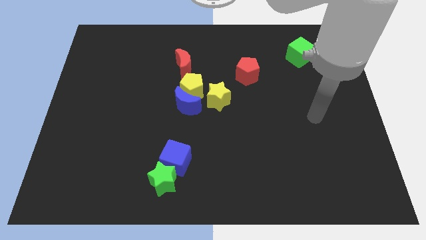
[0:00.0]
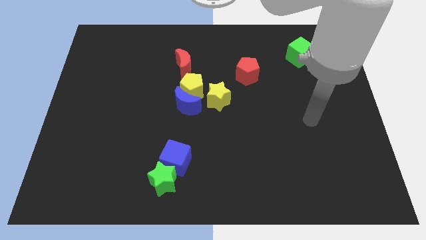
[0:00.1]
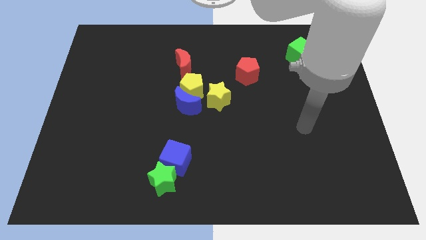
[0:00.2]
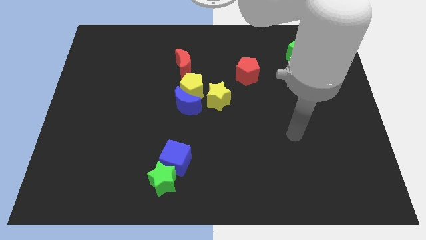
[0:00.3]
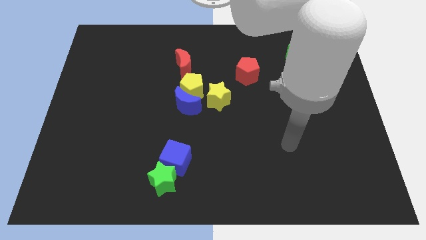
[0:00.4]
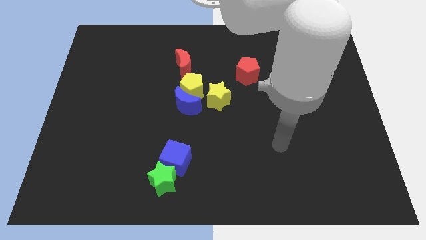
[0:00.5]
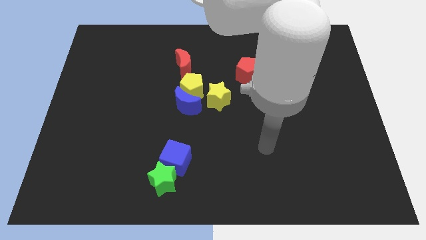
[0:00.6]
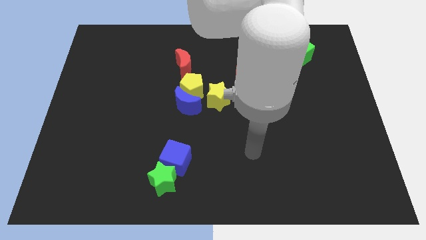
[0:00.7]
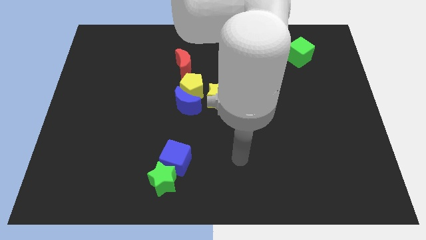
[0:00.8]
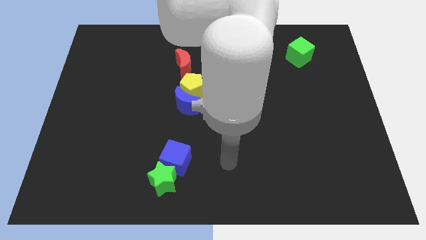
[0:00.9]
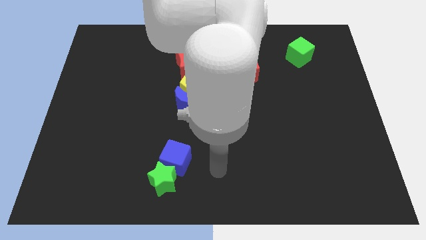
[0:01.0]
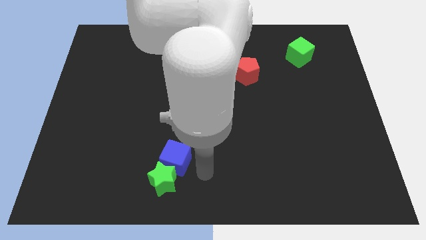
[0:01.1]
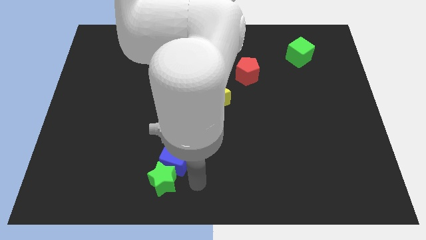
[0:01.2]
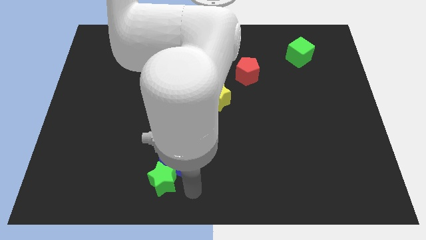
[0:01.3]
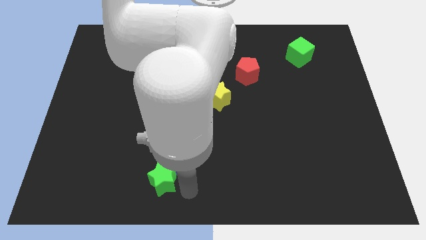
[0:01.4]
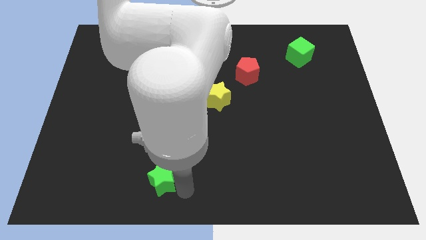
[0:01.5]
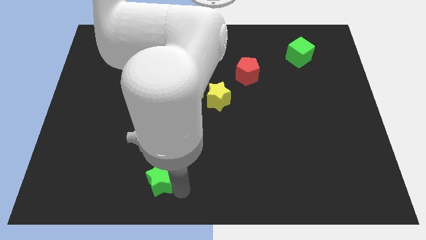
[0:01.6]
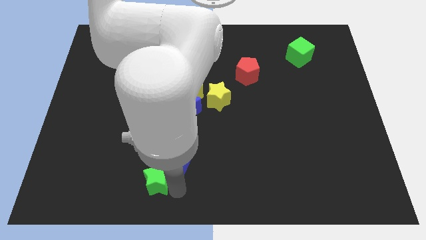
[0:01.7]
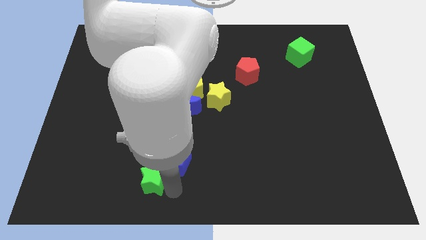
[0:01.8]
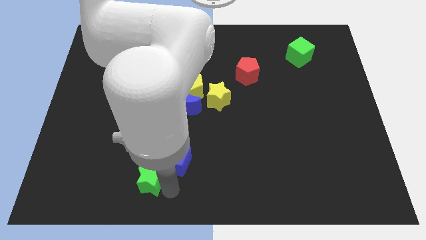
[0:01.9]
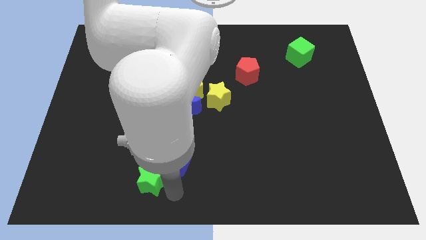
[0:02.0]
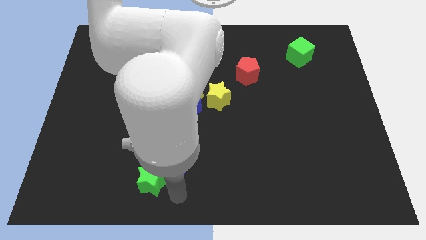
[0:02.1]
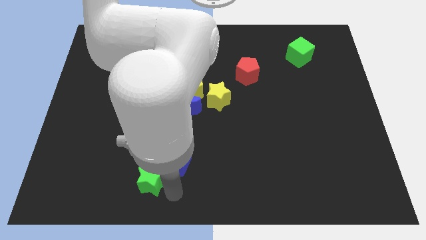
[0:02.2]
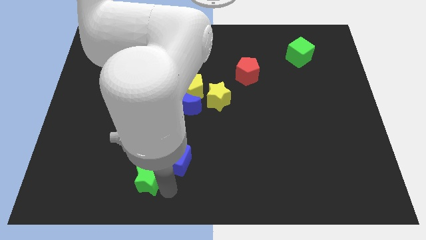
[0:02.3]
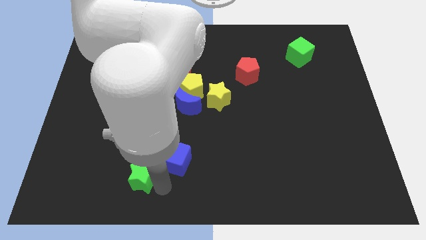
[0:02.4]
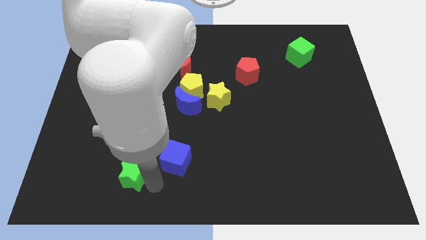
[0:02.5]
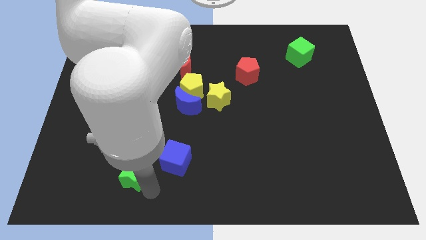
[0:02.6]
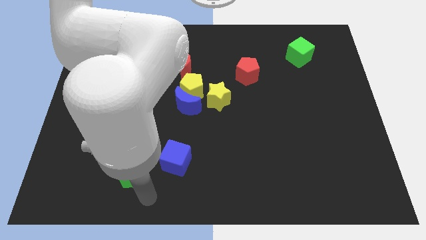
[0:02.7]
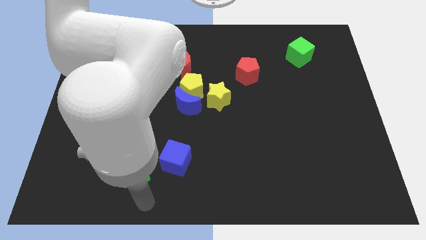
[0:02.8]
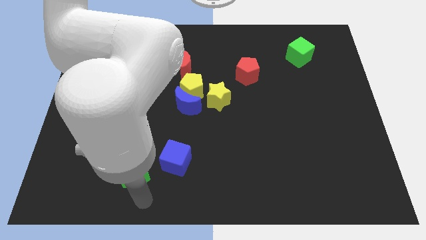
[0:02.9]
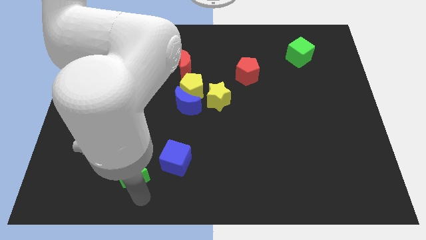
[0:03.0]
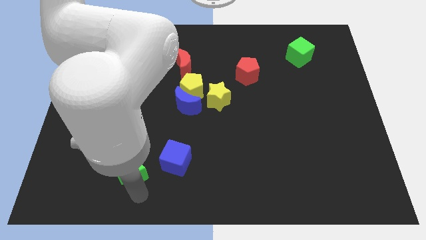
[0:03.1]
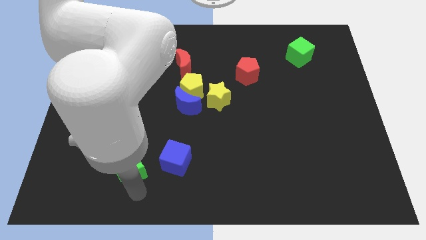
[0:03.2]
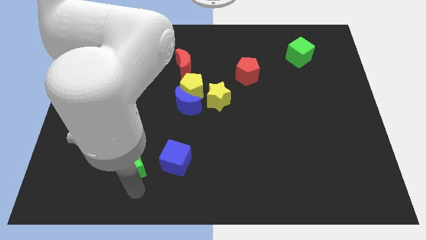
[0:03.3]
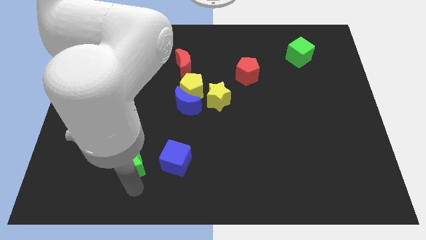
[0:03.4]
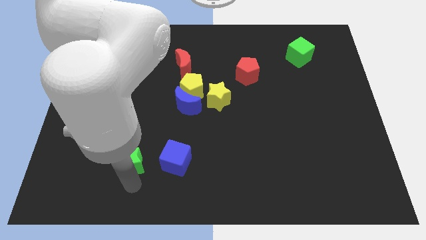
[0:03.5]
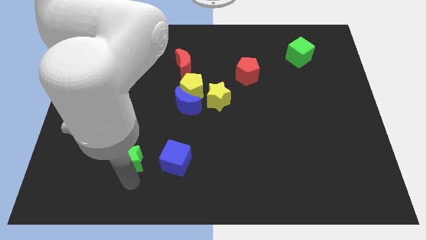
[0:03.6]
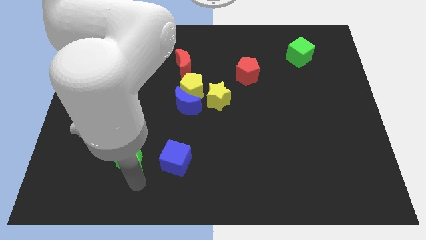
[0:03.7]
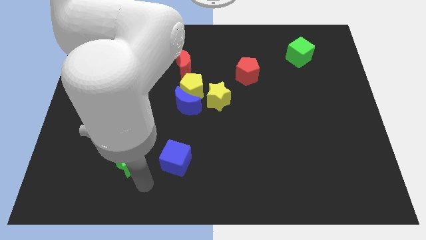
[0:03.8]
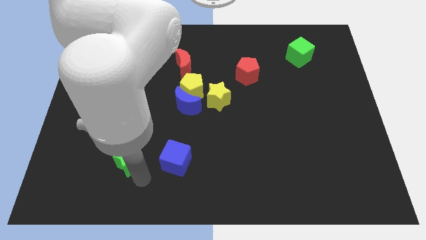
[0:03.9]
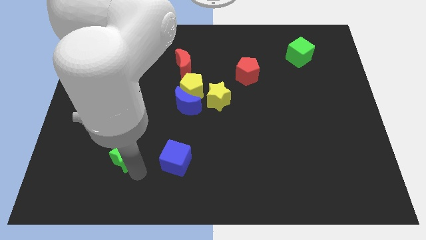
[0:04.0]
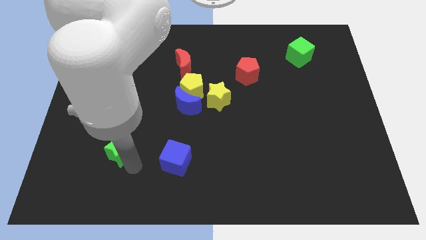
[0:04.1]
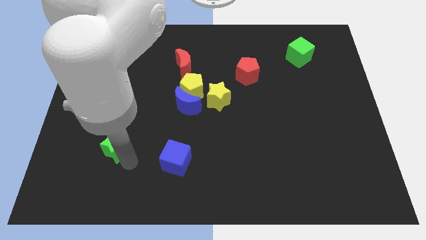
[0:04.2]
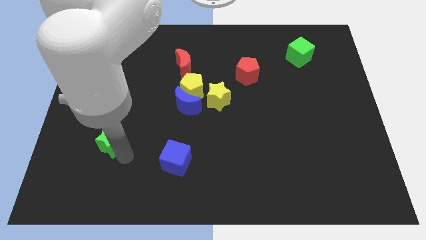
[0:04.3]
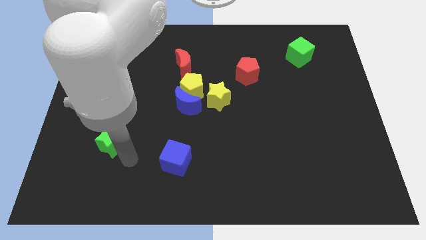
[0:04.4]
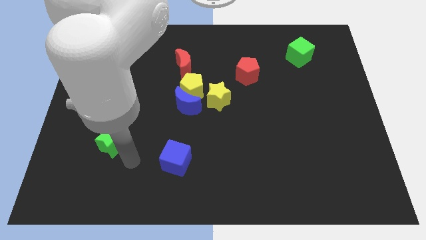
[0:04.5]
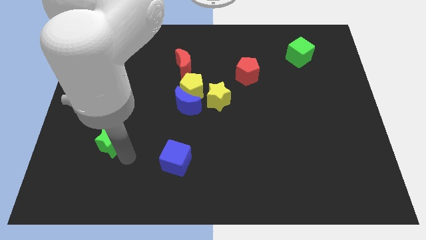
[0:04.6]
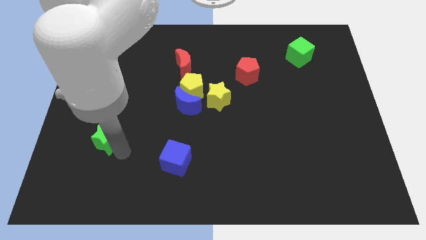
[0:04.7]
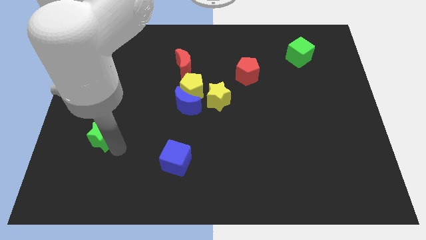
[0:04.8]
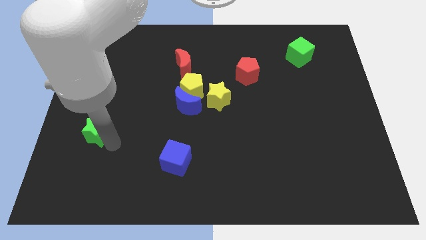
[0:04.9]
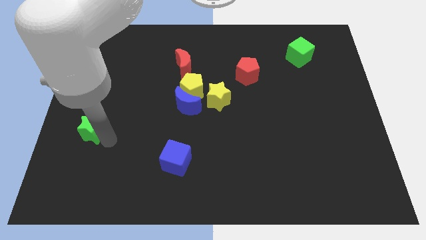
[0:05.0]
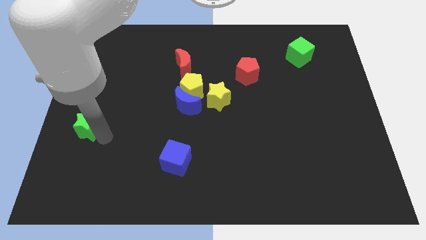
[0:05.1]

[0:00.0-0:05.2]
put the green star to the center left

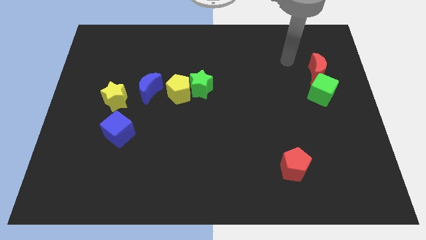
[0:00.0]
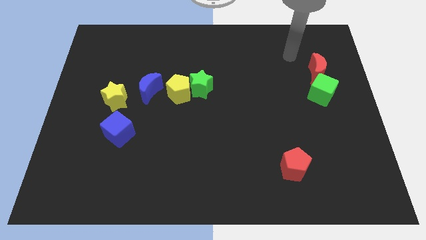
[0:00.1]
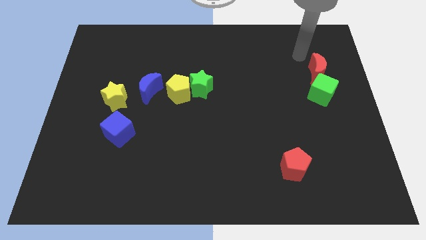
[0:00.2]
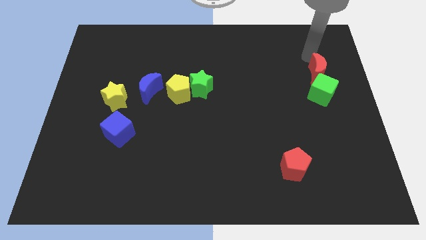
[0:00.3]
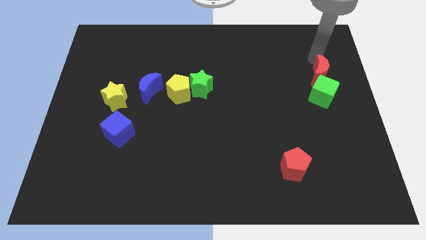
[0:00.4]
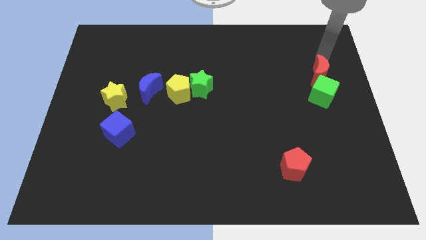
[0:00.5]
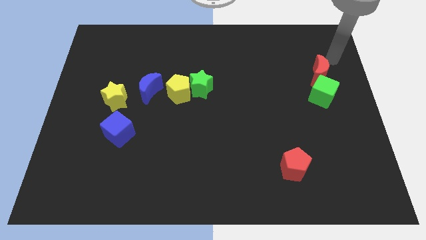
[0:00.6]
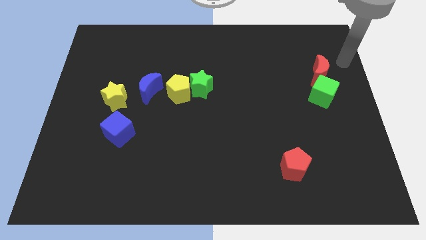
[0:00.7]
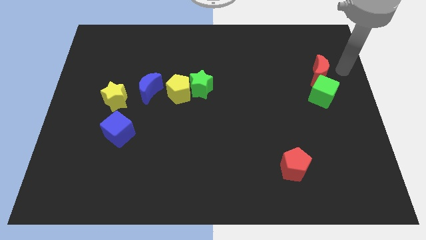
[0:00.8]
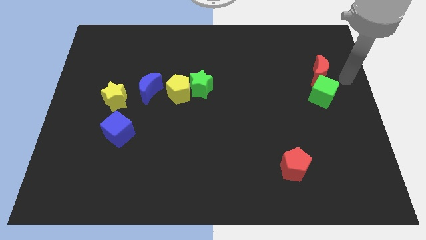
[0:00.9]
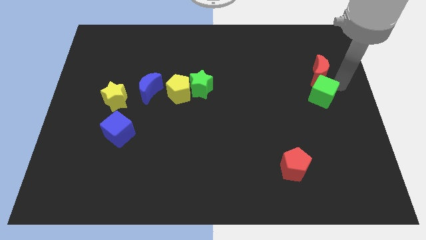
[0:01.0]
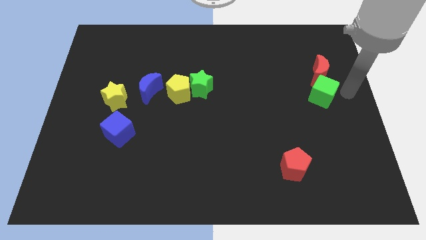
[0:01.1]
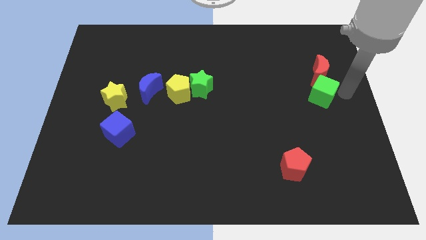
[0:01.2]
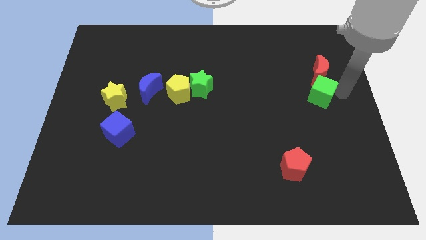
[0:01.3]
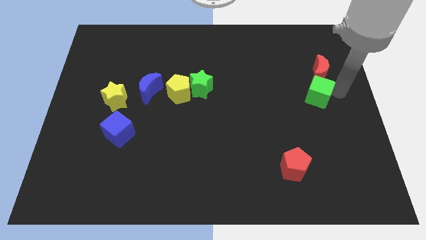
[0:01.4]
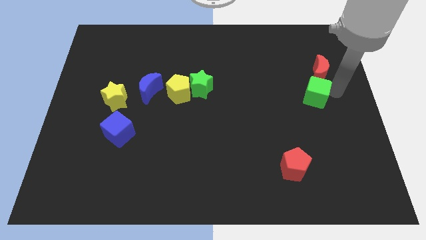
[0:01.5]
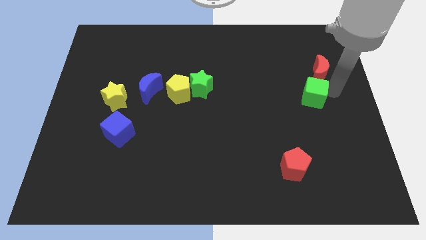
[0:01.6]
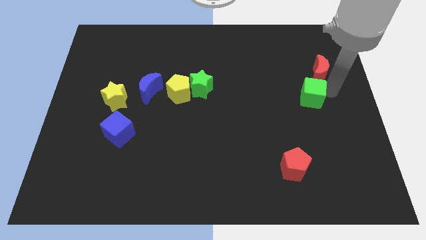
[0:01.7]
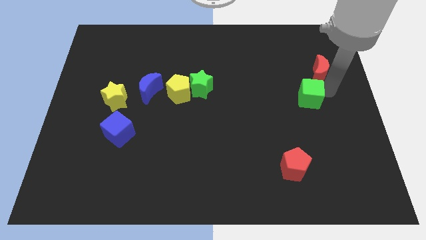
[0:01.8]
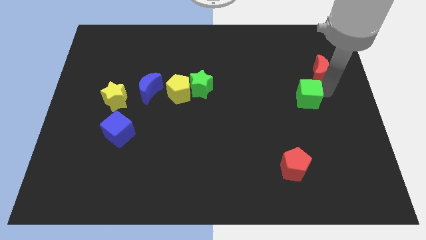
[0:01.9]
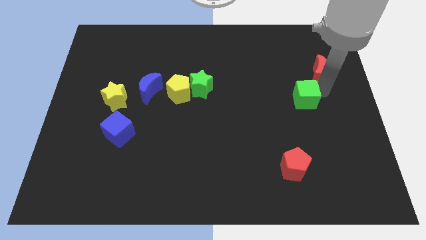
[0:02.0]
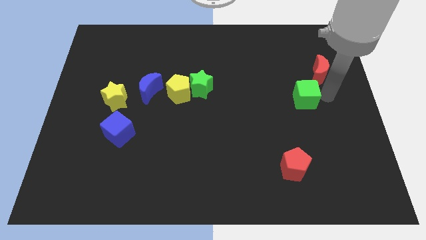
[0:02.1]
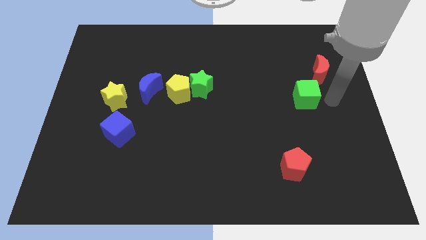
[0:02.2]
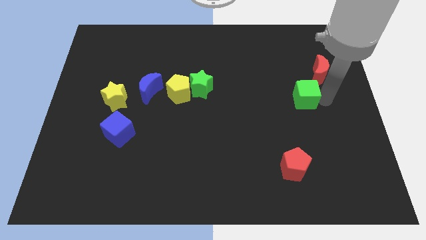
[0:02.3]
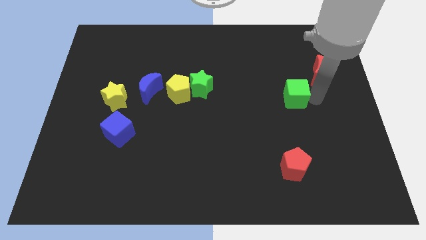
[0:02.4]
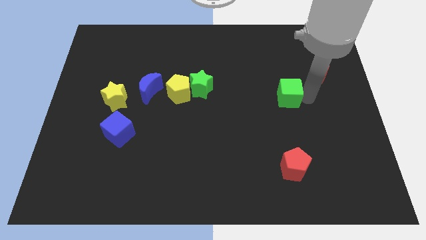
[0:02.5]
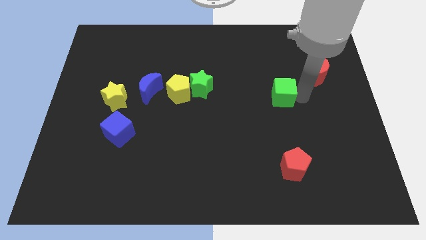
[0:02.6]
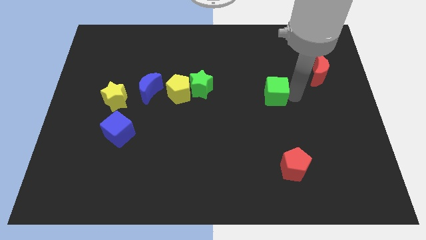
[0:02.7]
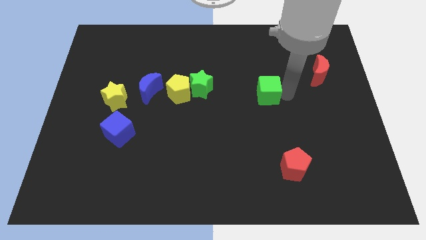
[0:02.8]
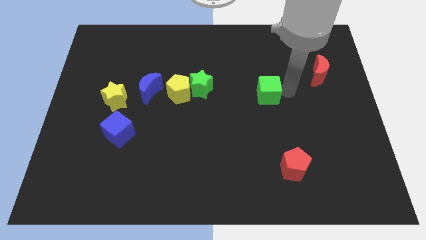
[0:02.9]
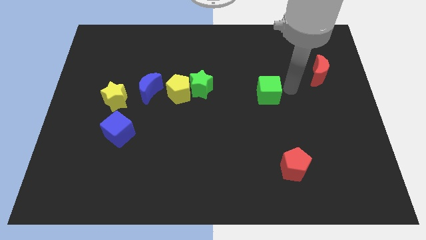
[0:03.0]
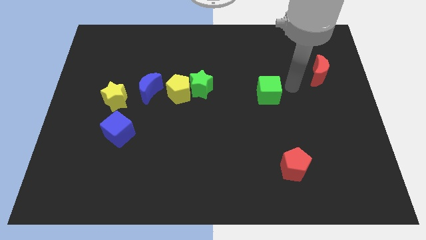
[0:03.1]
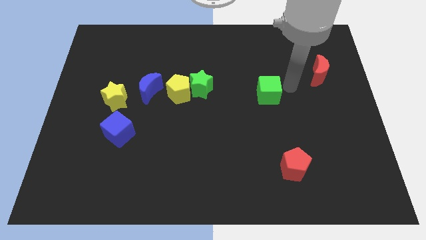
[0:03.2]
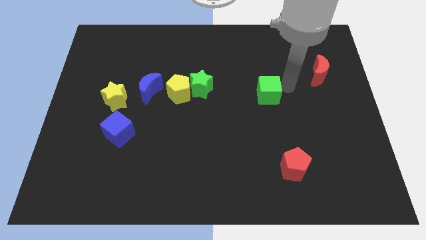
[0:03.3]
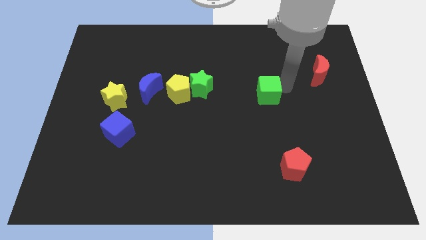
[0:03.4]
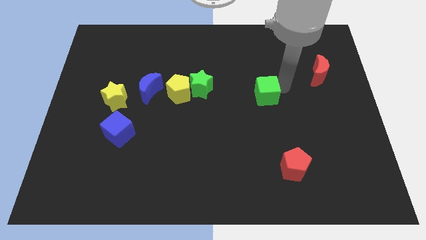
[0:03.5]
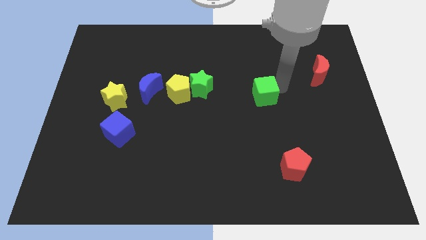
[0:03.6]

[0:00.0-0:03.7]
move the green cube to the center of the board
